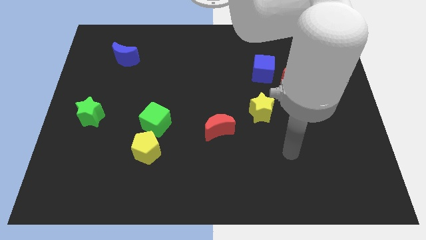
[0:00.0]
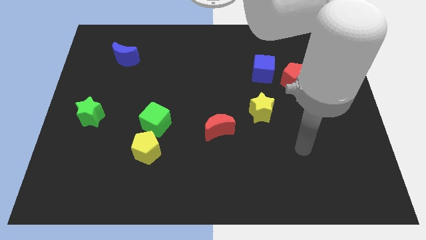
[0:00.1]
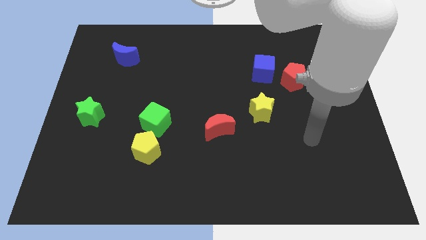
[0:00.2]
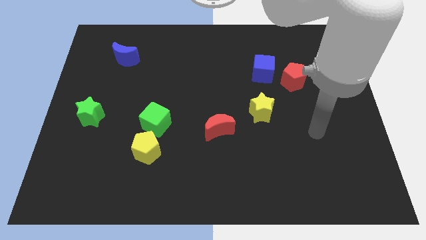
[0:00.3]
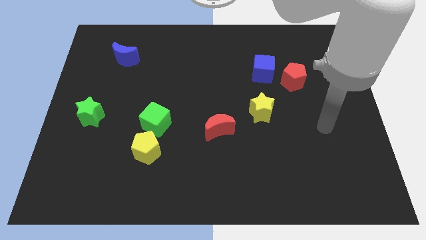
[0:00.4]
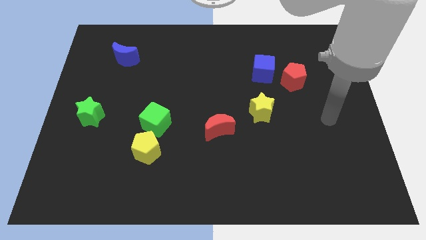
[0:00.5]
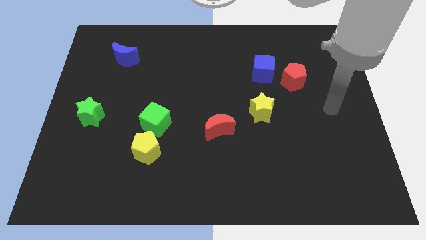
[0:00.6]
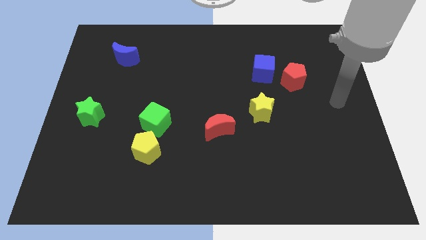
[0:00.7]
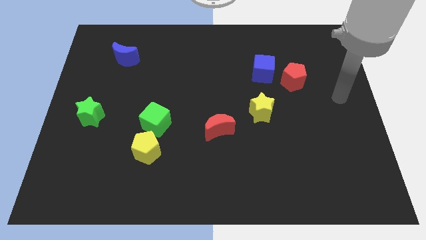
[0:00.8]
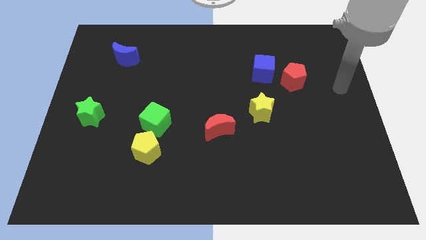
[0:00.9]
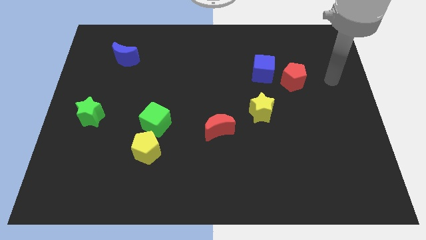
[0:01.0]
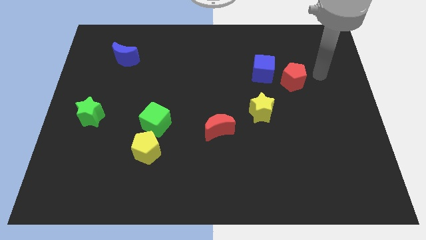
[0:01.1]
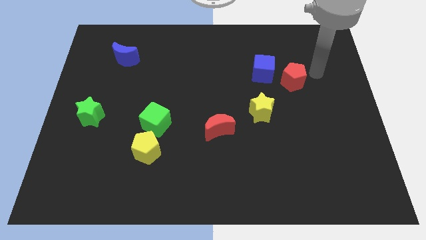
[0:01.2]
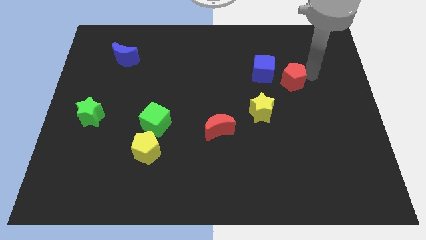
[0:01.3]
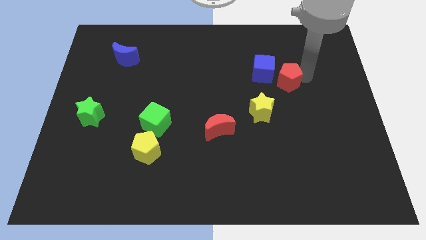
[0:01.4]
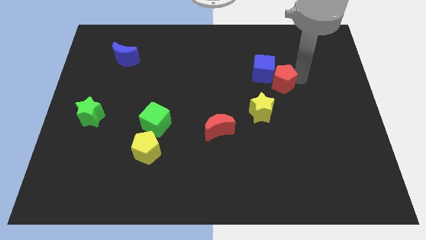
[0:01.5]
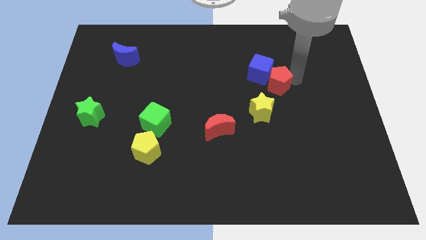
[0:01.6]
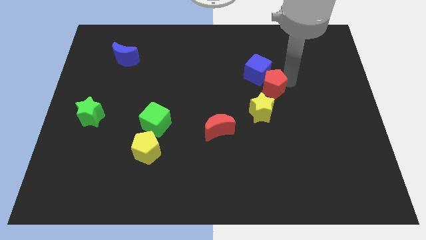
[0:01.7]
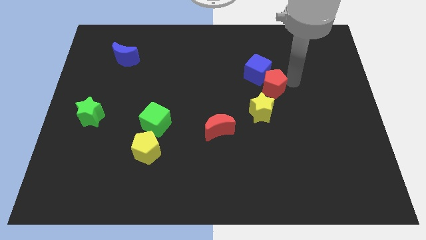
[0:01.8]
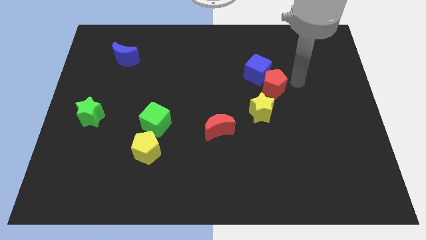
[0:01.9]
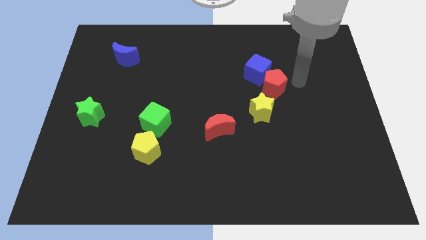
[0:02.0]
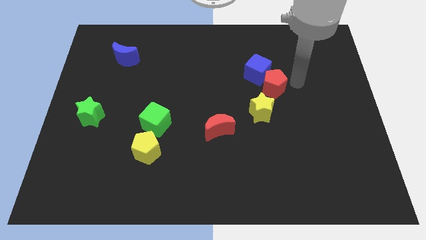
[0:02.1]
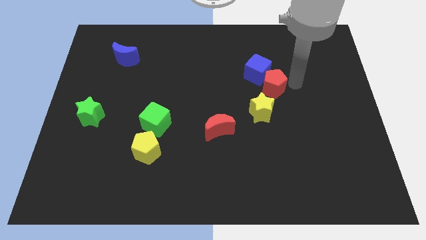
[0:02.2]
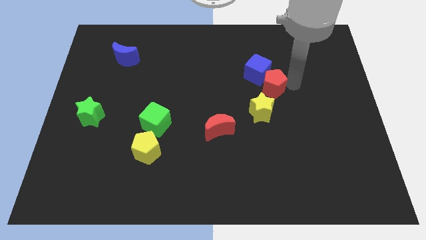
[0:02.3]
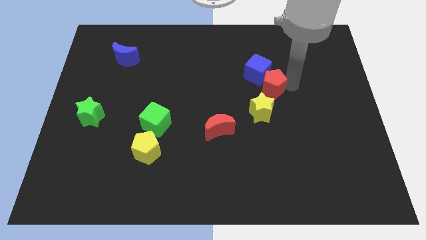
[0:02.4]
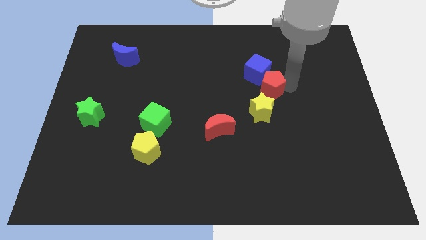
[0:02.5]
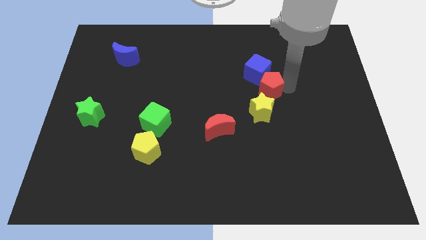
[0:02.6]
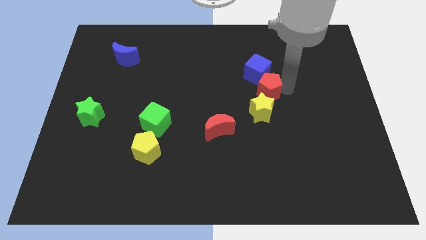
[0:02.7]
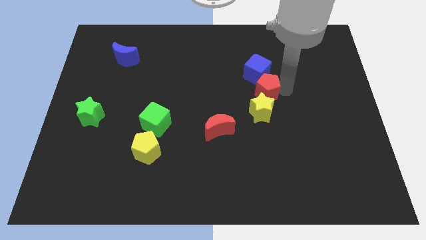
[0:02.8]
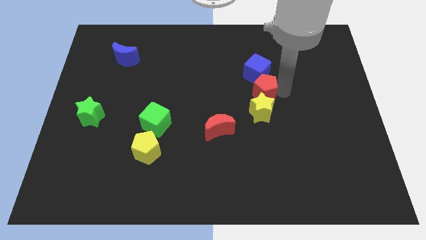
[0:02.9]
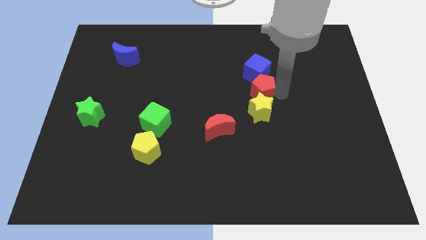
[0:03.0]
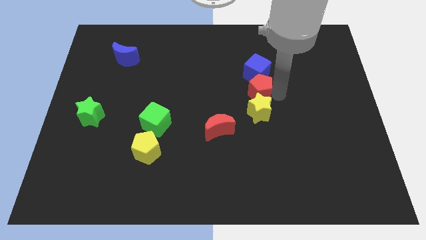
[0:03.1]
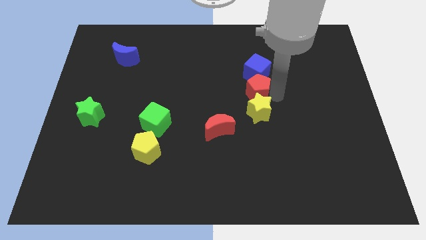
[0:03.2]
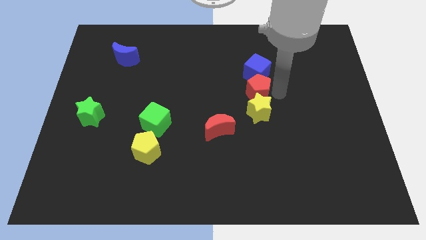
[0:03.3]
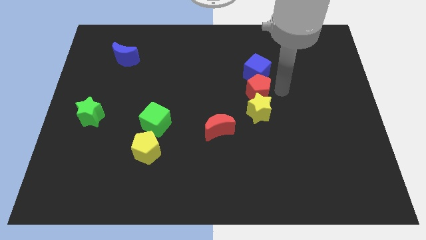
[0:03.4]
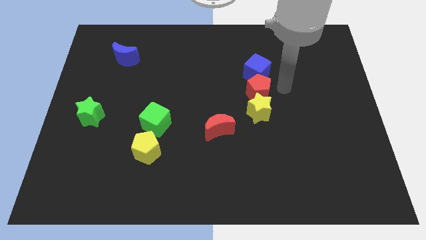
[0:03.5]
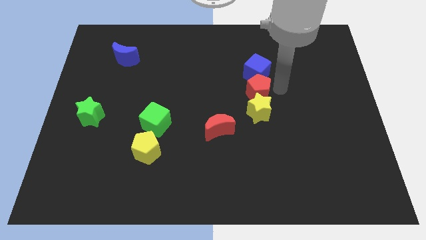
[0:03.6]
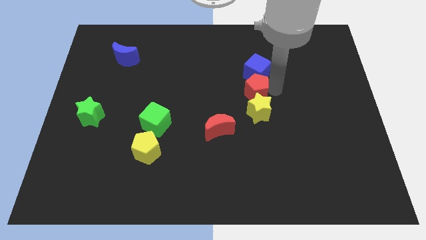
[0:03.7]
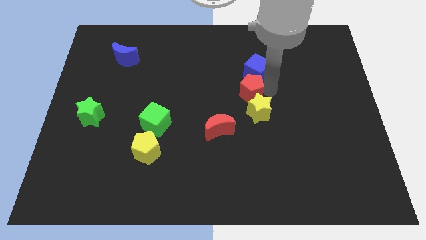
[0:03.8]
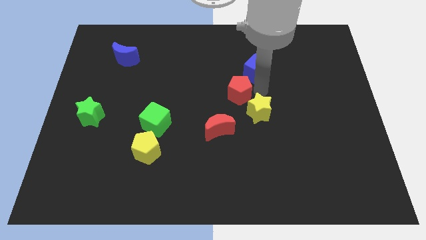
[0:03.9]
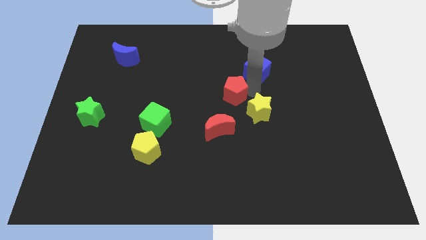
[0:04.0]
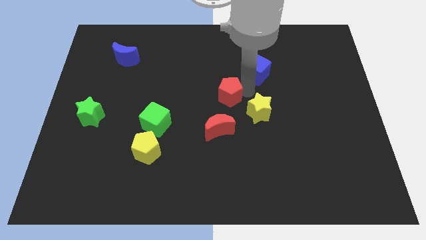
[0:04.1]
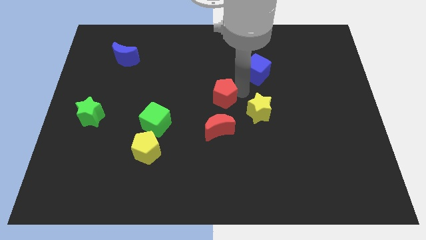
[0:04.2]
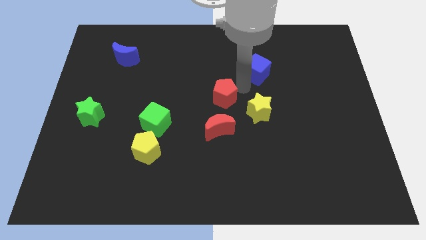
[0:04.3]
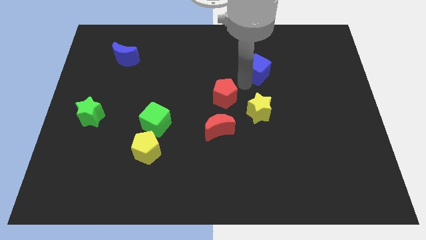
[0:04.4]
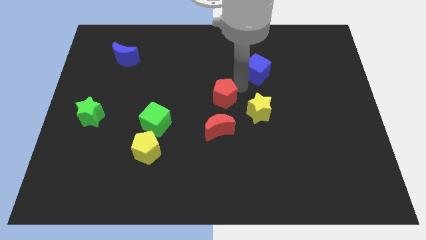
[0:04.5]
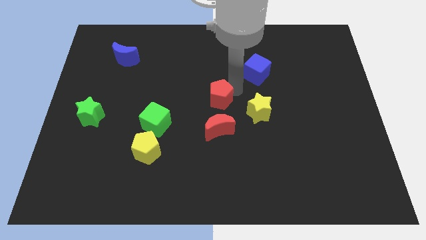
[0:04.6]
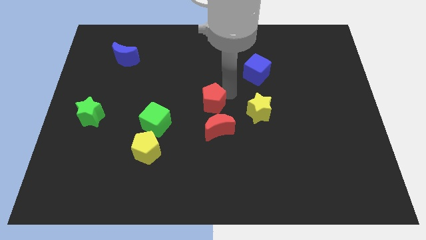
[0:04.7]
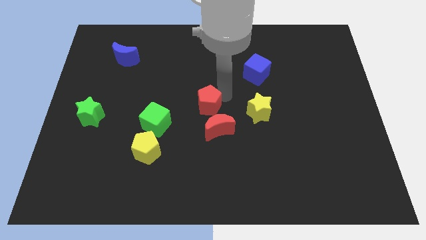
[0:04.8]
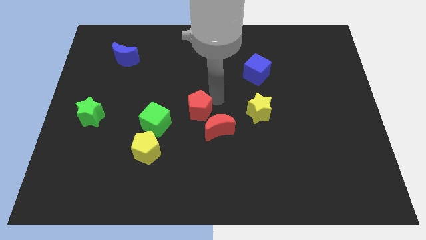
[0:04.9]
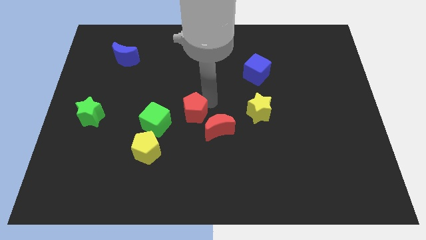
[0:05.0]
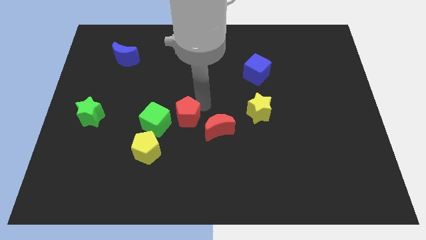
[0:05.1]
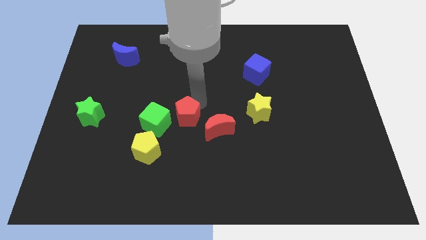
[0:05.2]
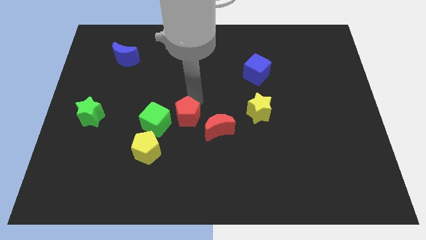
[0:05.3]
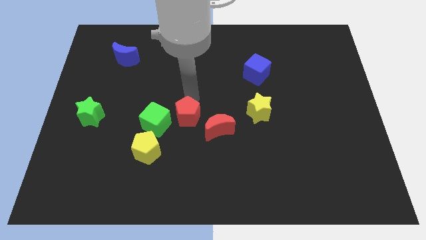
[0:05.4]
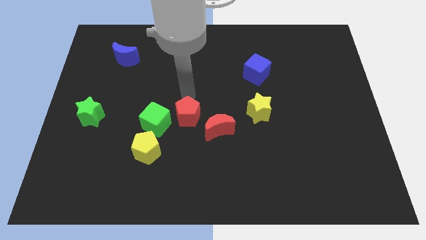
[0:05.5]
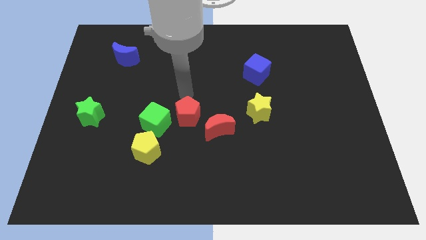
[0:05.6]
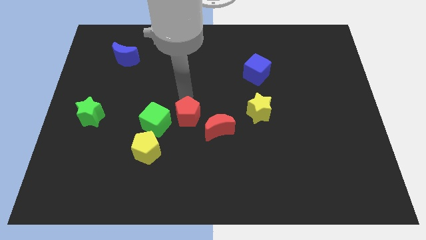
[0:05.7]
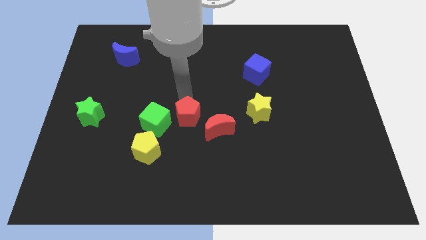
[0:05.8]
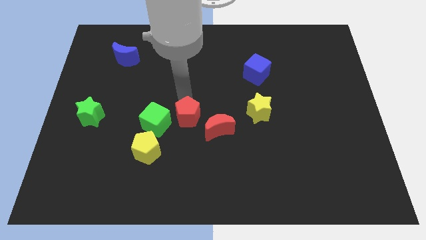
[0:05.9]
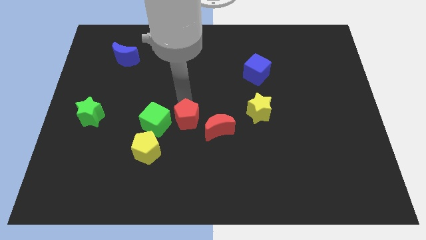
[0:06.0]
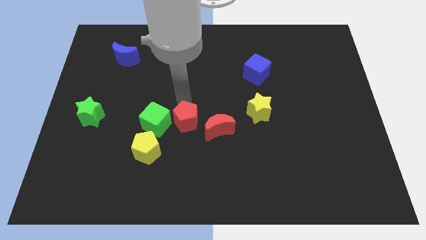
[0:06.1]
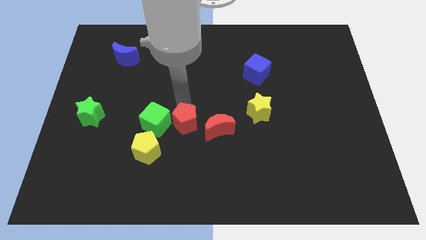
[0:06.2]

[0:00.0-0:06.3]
move the red pentagon diagonally down and to the right of the green cube

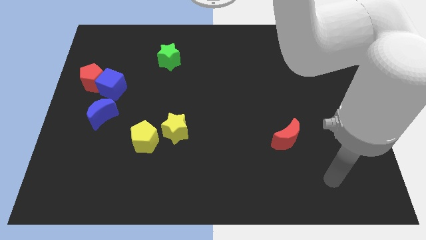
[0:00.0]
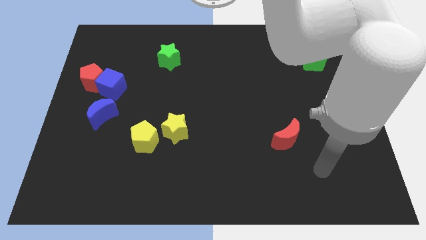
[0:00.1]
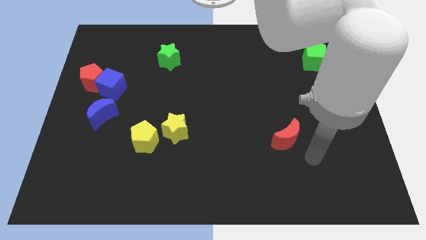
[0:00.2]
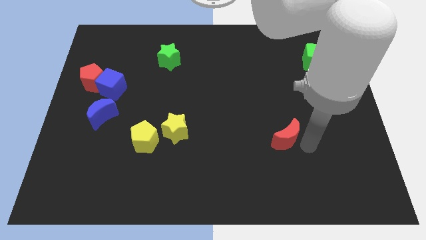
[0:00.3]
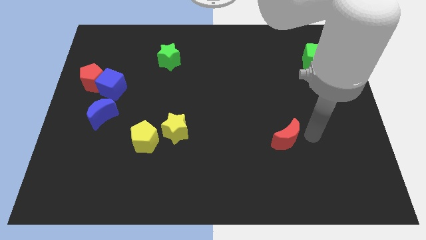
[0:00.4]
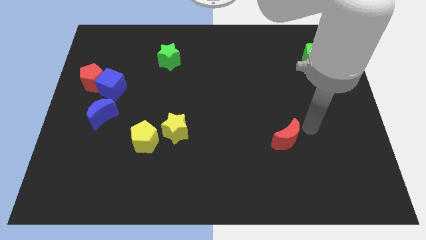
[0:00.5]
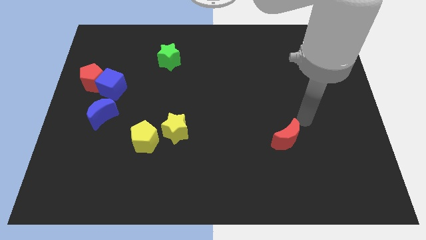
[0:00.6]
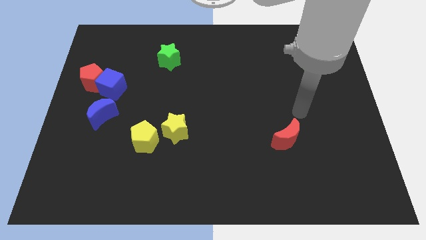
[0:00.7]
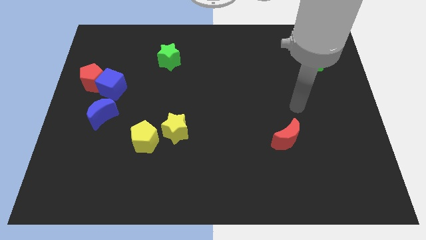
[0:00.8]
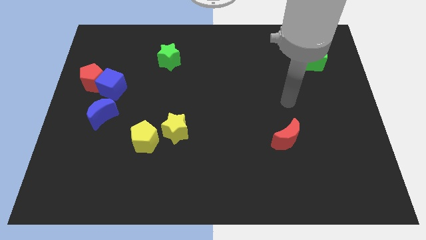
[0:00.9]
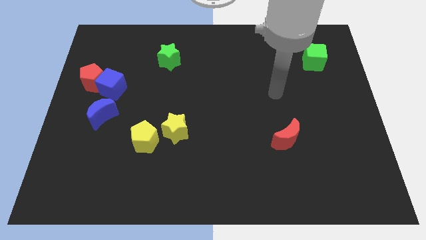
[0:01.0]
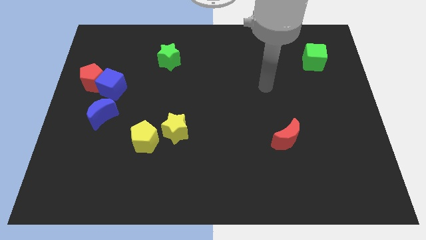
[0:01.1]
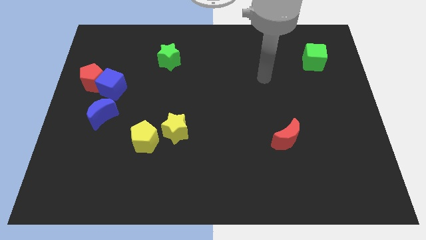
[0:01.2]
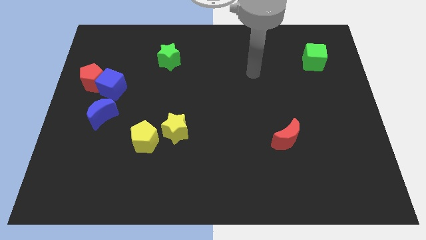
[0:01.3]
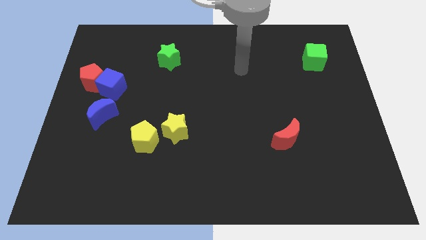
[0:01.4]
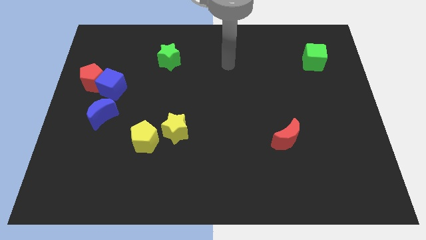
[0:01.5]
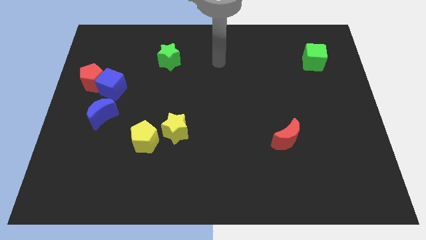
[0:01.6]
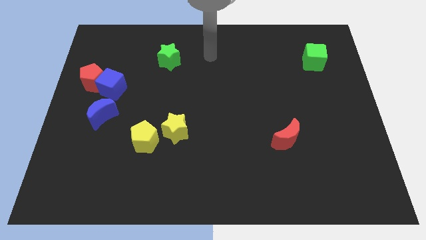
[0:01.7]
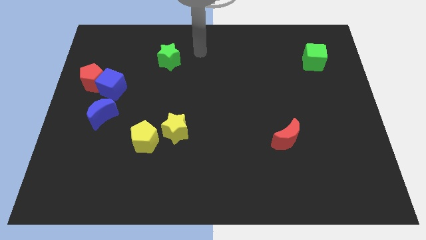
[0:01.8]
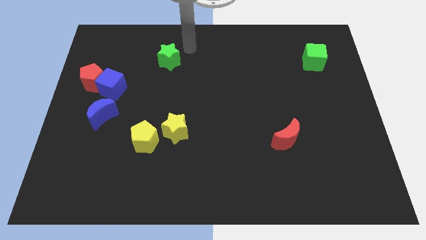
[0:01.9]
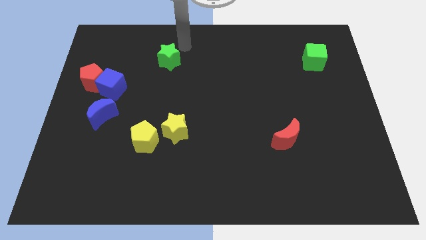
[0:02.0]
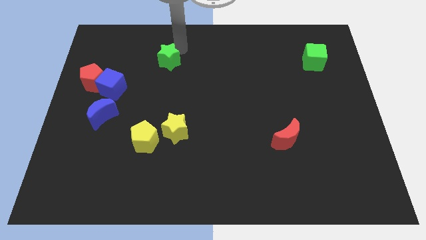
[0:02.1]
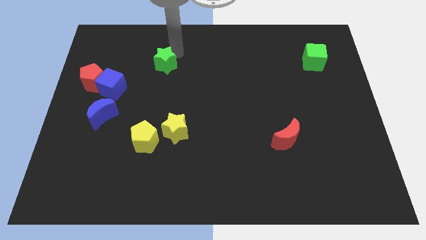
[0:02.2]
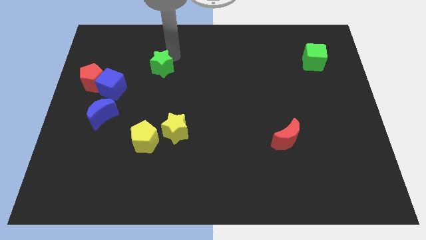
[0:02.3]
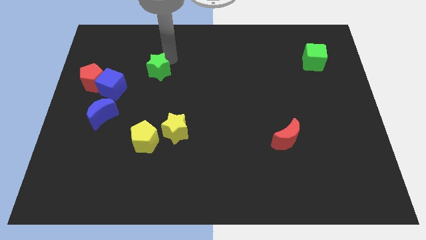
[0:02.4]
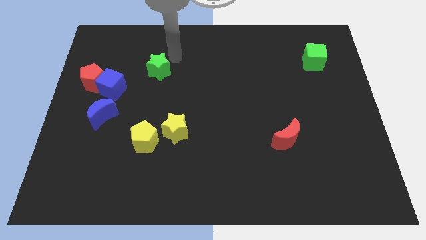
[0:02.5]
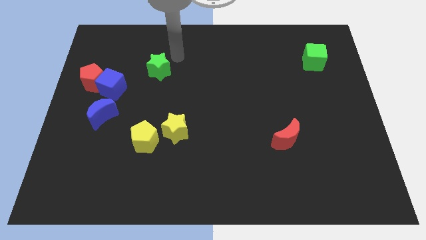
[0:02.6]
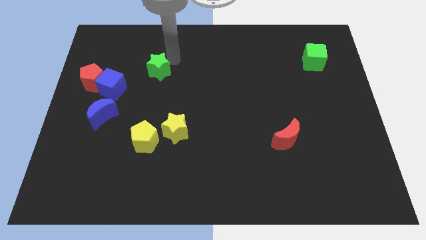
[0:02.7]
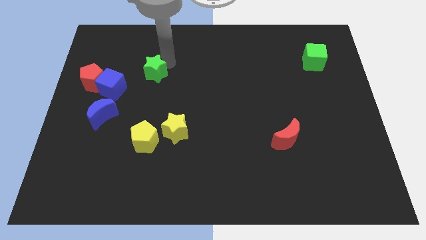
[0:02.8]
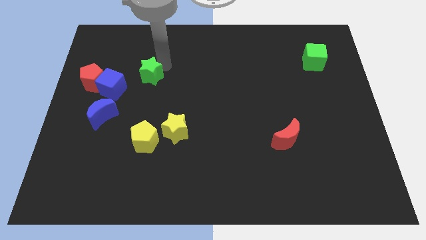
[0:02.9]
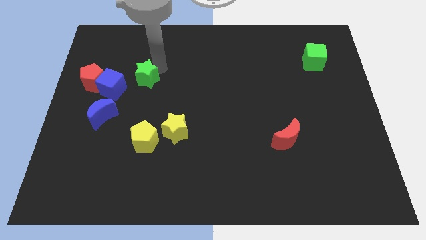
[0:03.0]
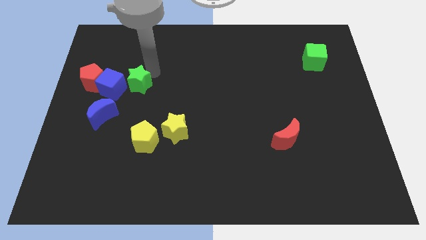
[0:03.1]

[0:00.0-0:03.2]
move the green star to the top right of the blue moon
